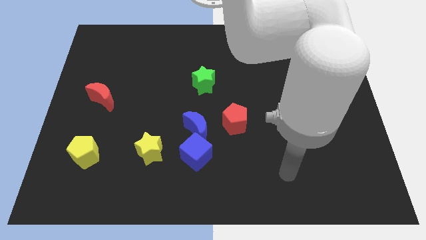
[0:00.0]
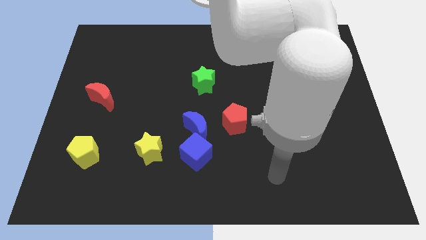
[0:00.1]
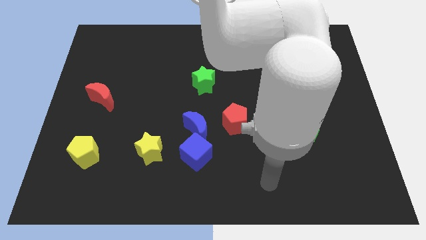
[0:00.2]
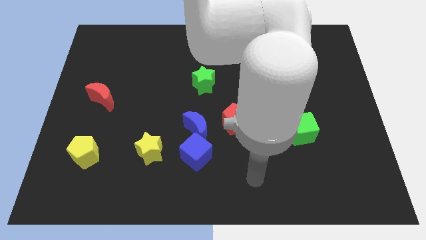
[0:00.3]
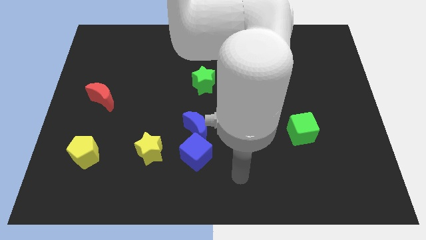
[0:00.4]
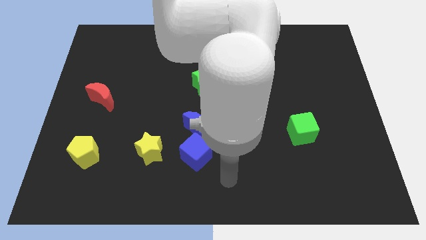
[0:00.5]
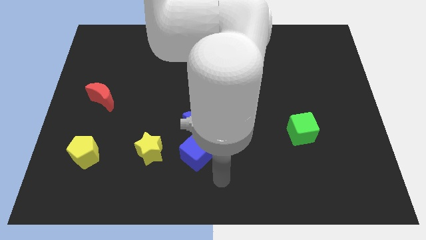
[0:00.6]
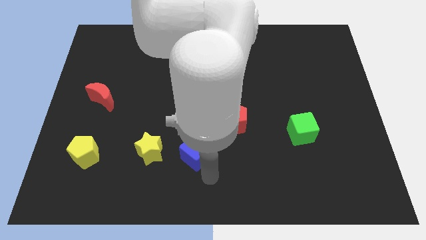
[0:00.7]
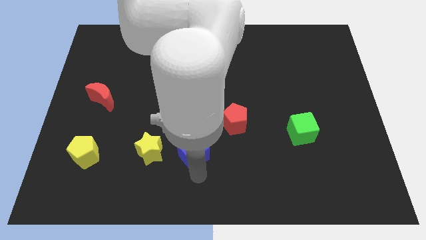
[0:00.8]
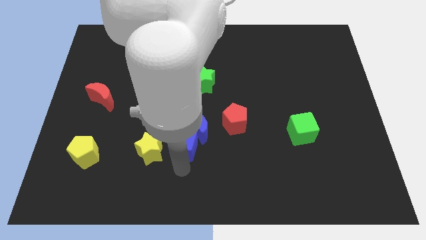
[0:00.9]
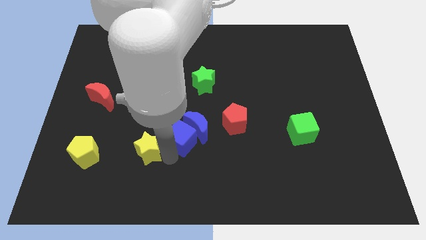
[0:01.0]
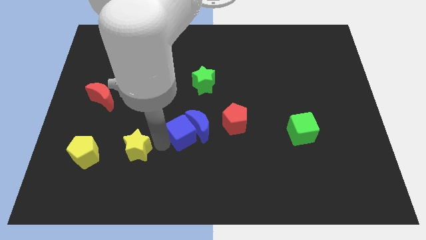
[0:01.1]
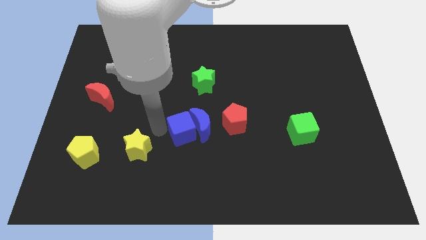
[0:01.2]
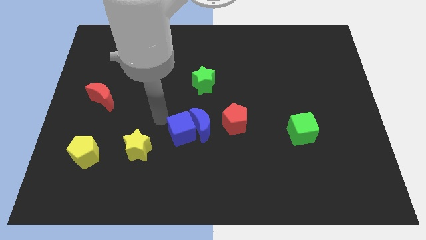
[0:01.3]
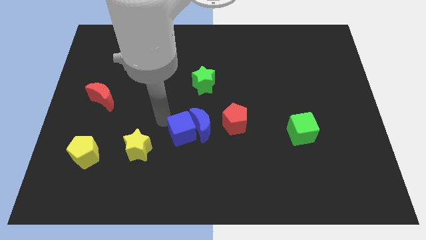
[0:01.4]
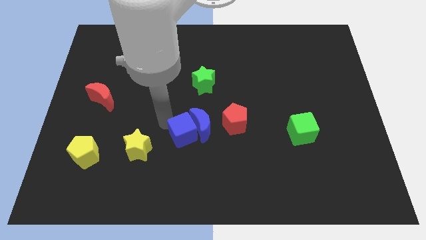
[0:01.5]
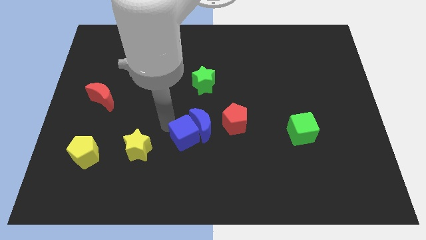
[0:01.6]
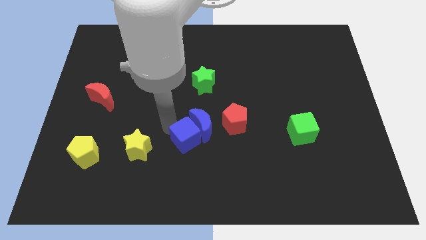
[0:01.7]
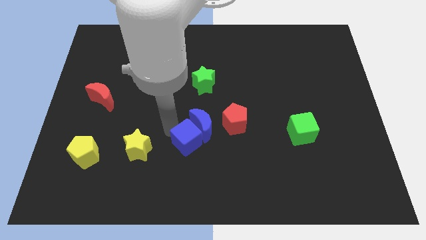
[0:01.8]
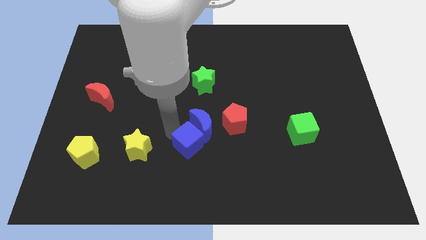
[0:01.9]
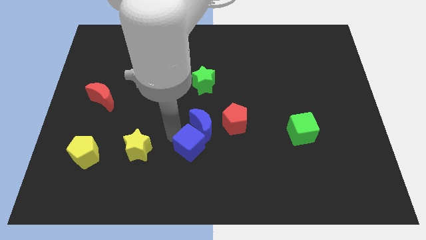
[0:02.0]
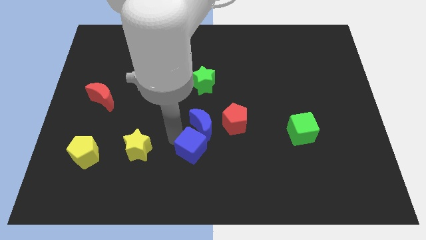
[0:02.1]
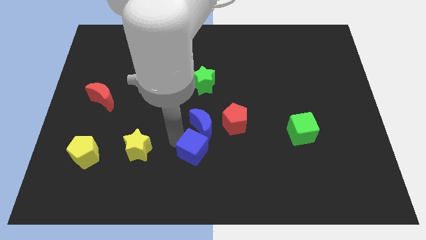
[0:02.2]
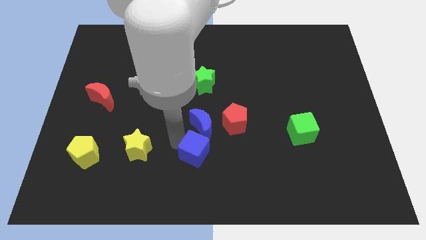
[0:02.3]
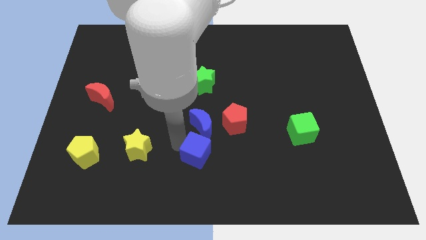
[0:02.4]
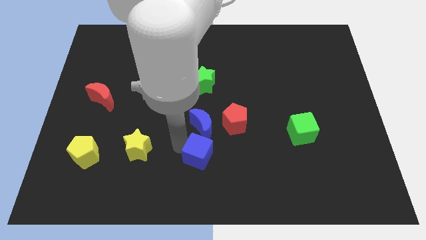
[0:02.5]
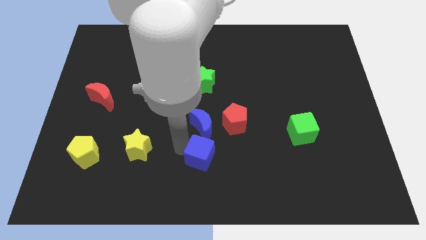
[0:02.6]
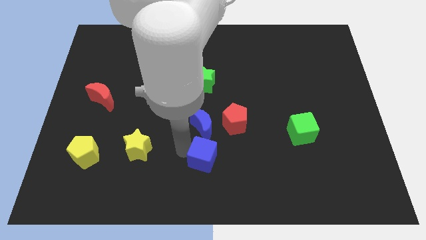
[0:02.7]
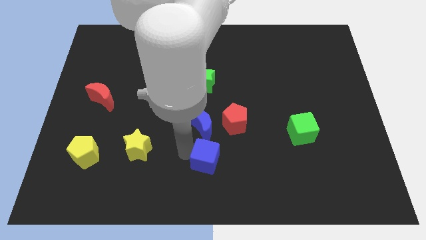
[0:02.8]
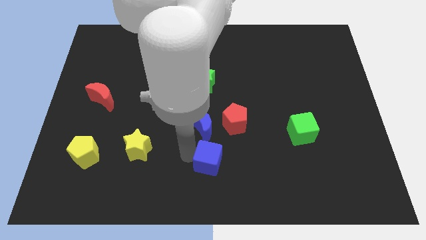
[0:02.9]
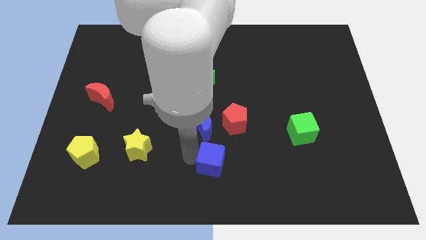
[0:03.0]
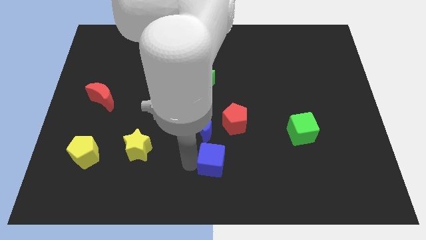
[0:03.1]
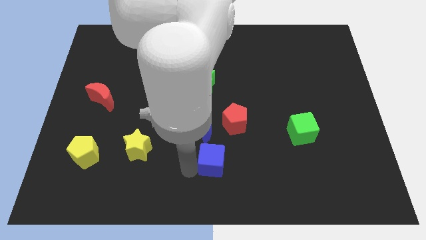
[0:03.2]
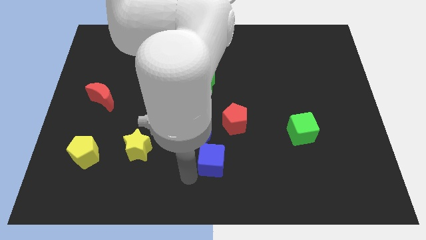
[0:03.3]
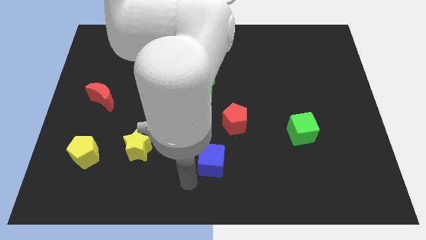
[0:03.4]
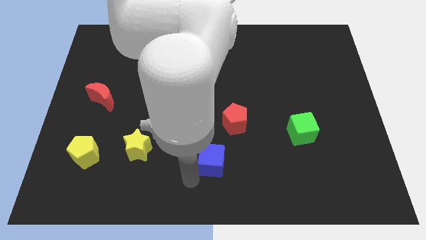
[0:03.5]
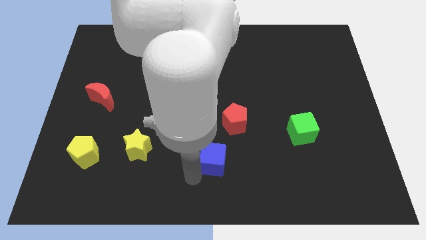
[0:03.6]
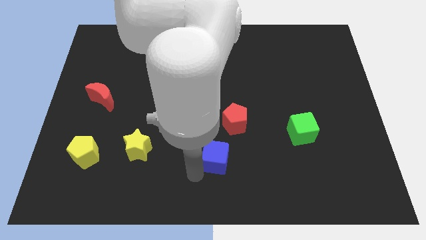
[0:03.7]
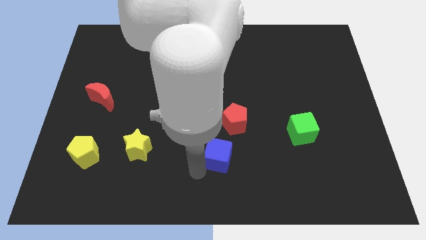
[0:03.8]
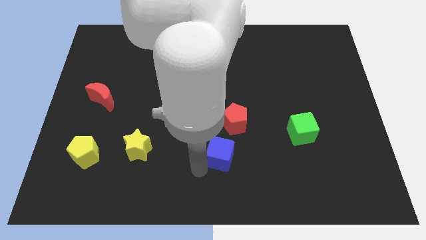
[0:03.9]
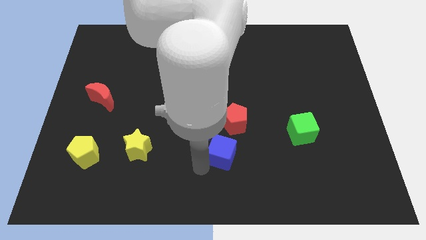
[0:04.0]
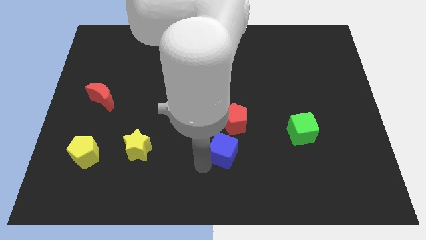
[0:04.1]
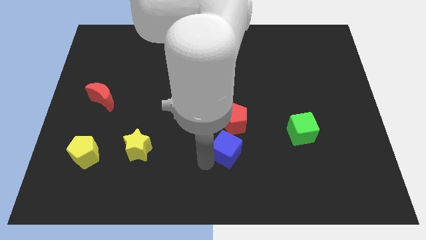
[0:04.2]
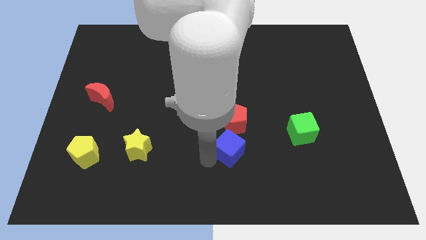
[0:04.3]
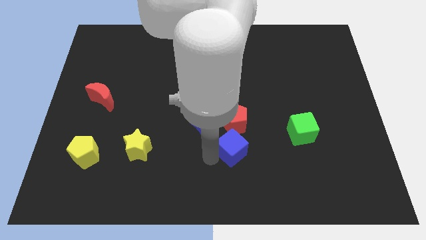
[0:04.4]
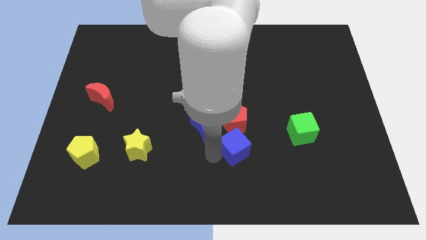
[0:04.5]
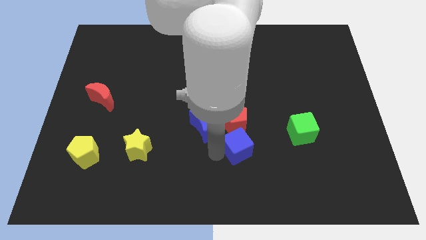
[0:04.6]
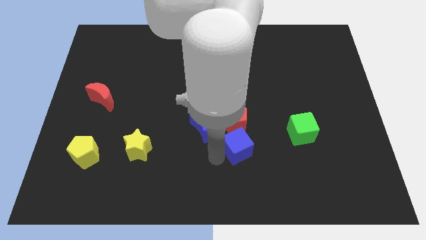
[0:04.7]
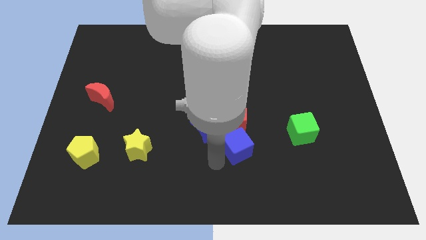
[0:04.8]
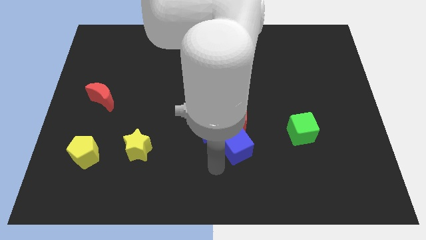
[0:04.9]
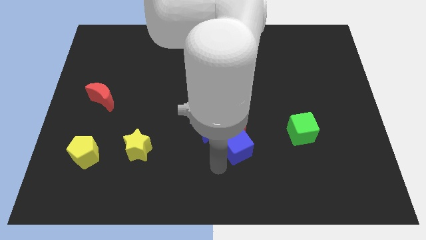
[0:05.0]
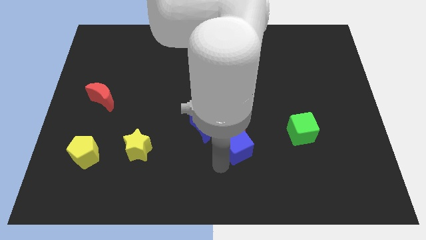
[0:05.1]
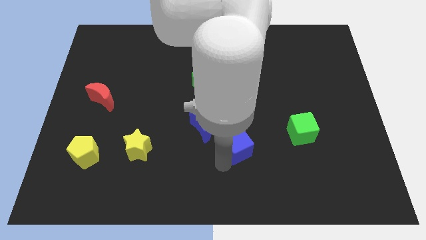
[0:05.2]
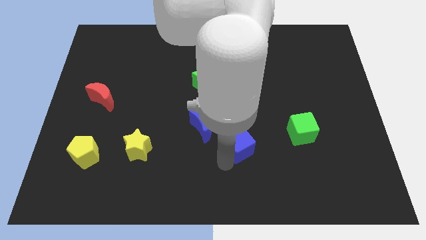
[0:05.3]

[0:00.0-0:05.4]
slightly move the blue cube upwards and right diagonally

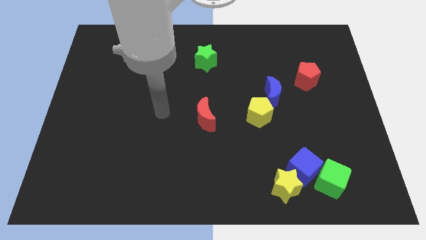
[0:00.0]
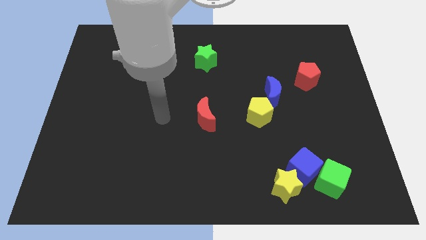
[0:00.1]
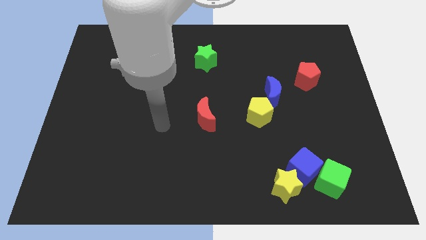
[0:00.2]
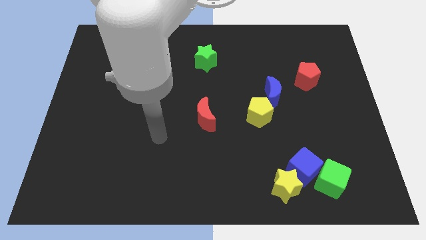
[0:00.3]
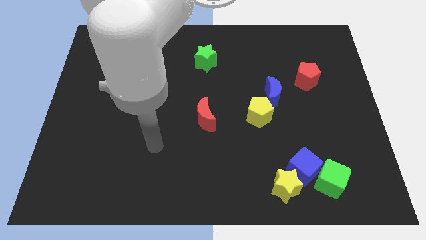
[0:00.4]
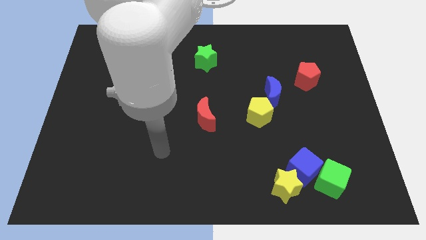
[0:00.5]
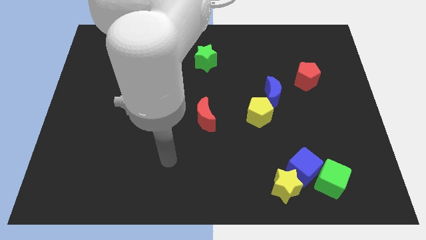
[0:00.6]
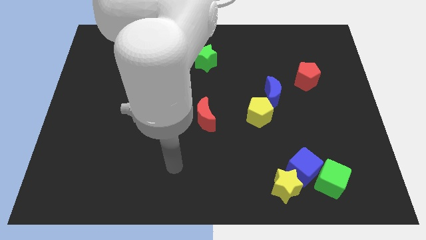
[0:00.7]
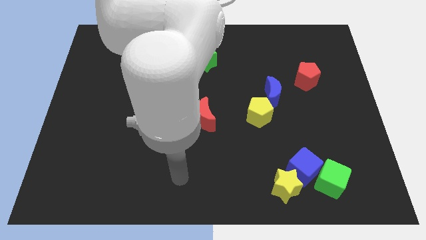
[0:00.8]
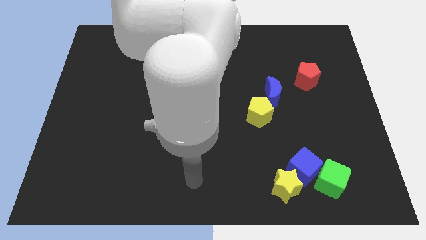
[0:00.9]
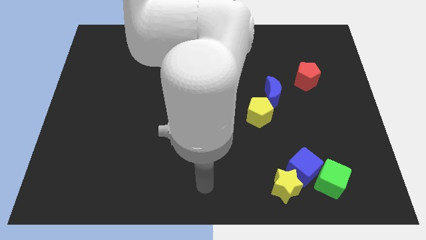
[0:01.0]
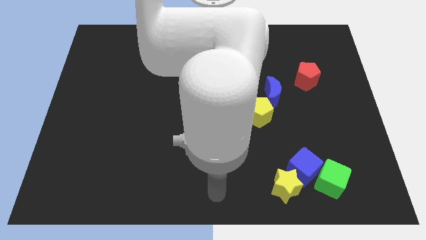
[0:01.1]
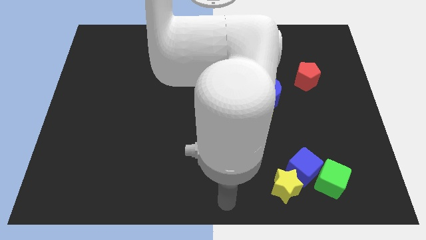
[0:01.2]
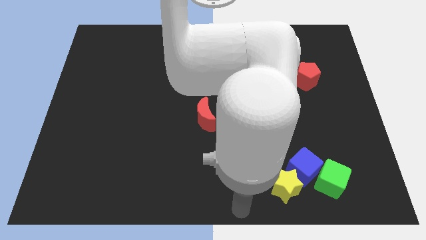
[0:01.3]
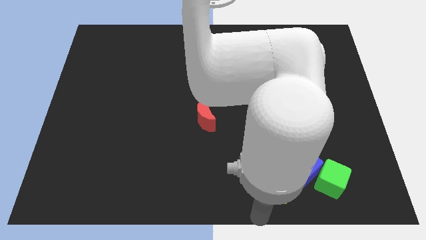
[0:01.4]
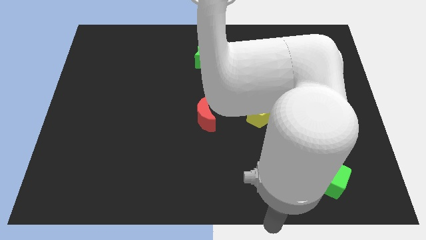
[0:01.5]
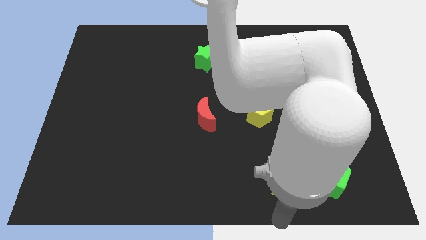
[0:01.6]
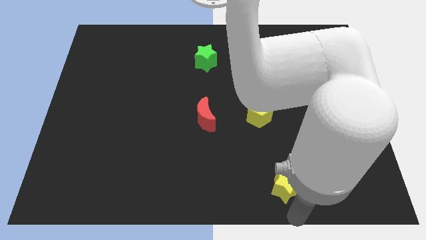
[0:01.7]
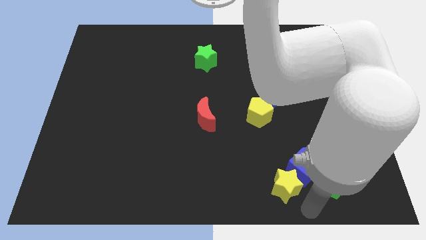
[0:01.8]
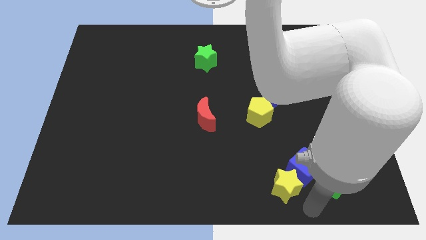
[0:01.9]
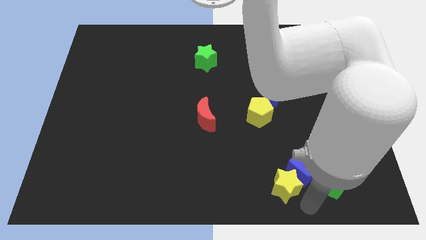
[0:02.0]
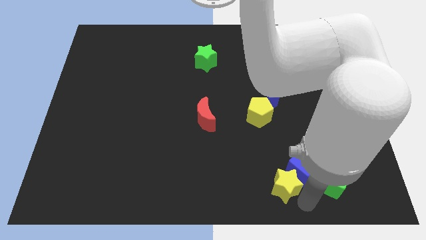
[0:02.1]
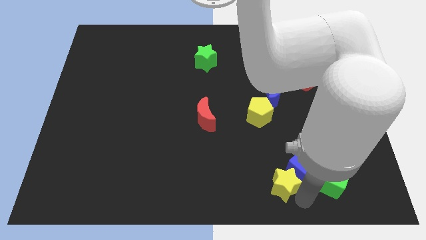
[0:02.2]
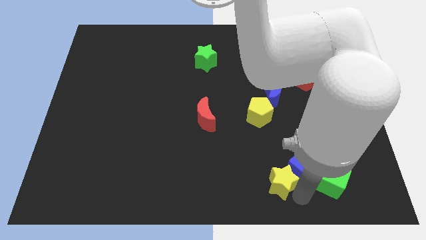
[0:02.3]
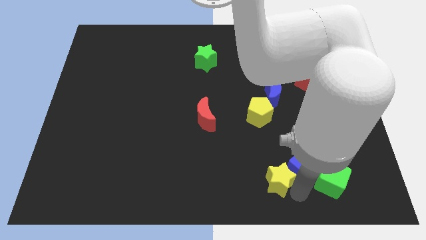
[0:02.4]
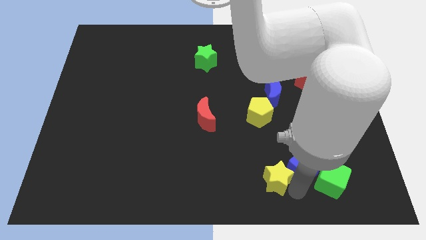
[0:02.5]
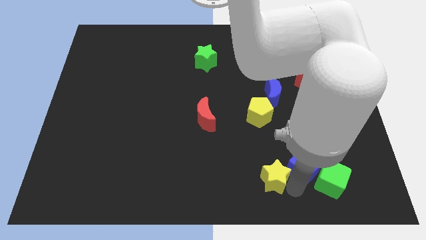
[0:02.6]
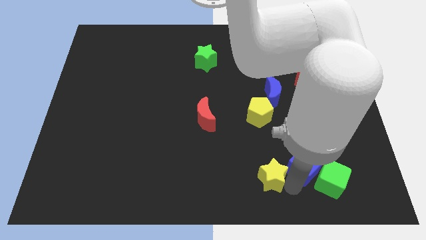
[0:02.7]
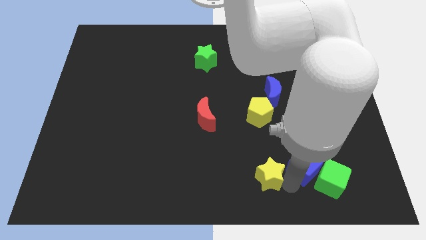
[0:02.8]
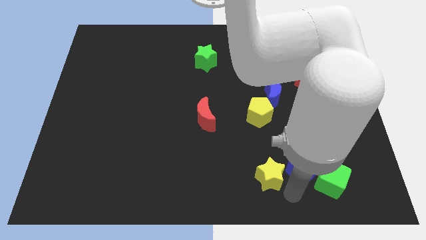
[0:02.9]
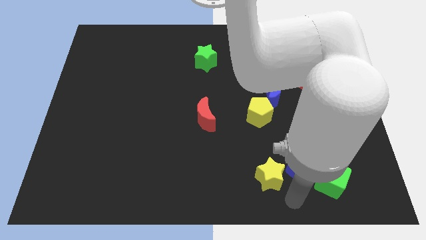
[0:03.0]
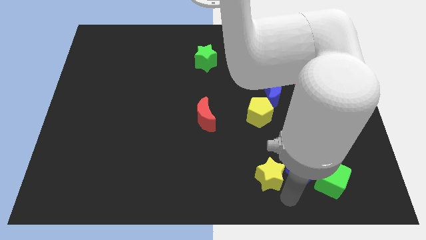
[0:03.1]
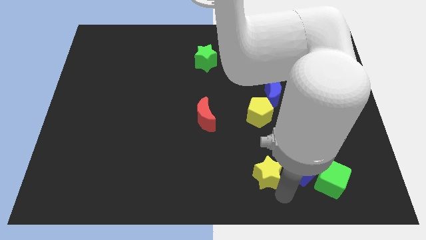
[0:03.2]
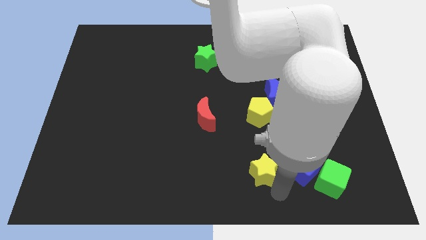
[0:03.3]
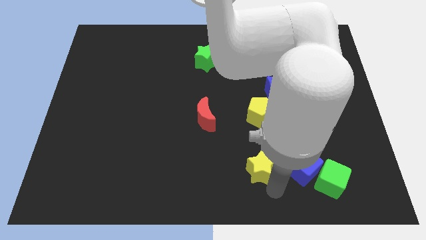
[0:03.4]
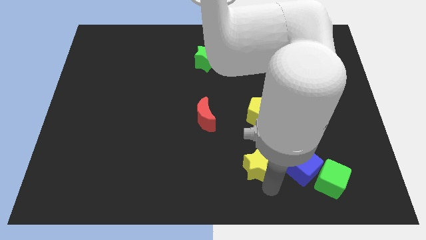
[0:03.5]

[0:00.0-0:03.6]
slightly slide the yellow star upwards and left diagonally
